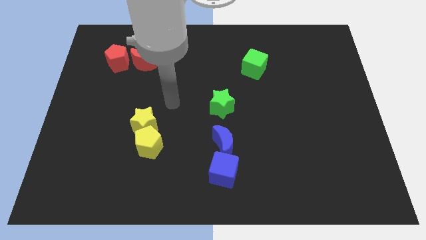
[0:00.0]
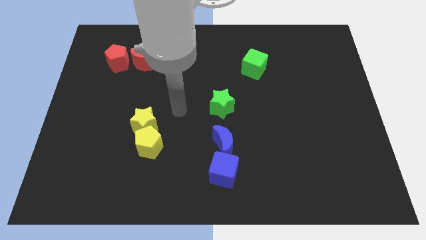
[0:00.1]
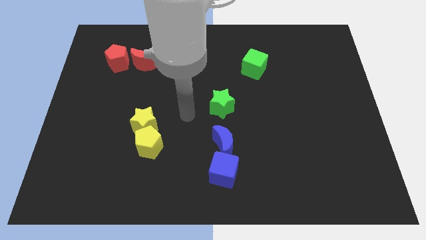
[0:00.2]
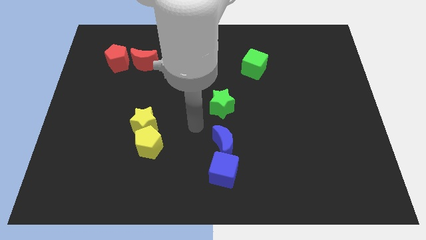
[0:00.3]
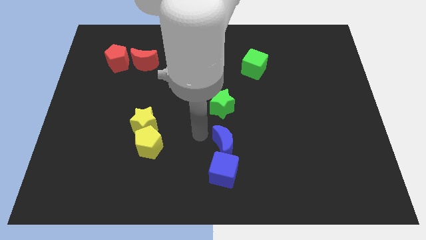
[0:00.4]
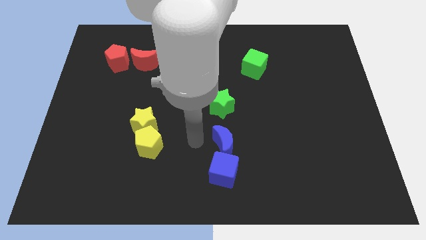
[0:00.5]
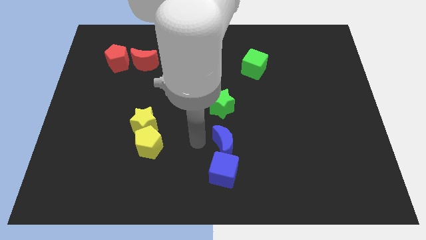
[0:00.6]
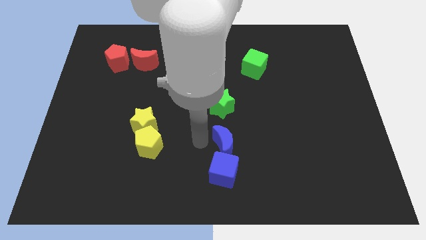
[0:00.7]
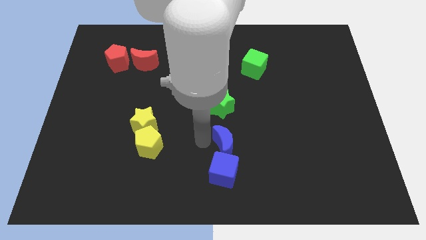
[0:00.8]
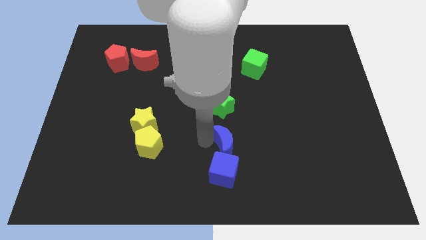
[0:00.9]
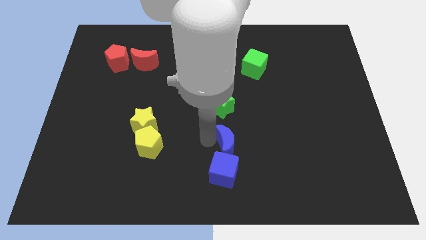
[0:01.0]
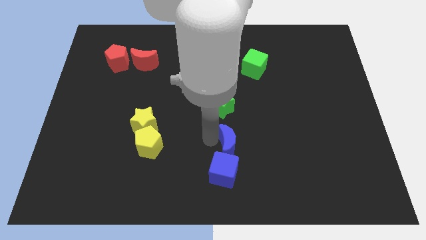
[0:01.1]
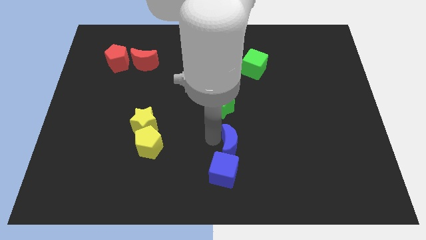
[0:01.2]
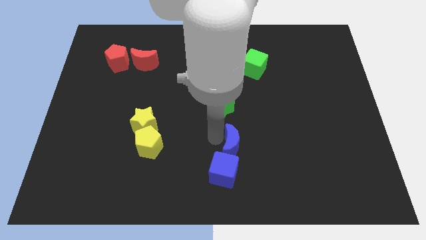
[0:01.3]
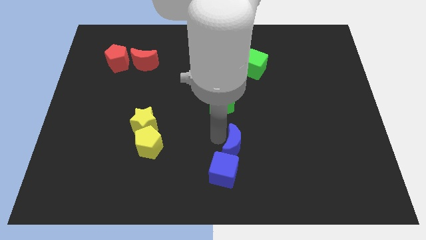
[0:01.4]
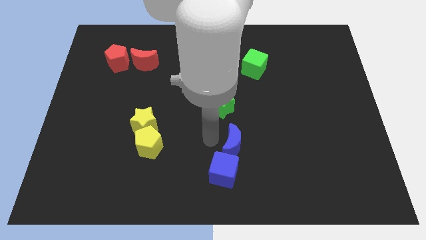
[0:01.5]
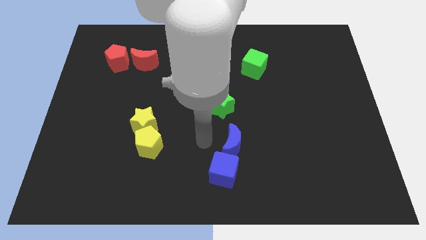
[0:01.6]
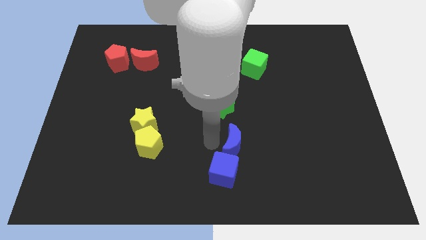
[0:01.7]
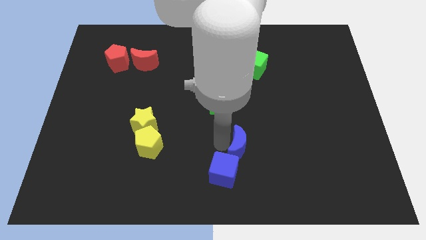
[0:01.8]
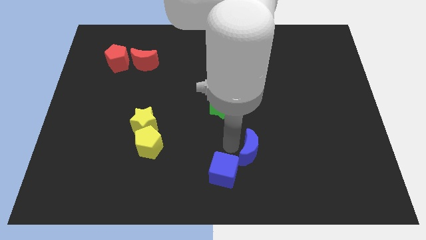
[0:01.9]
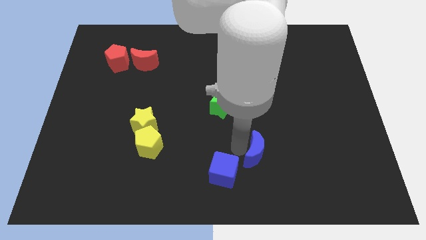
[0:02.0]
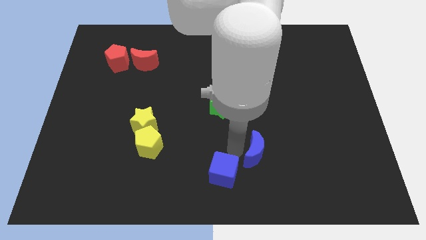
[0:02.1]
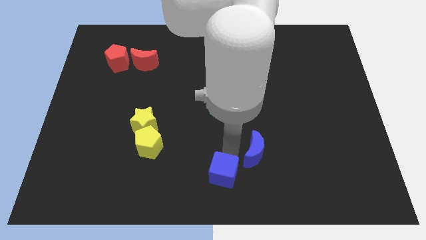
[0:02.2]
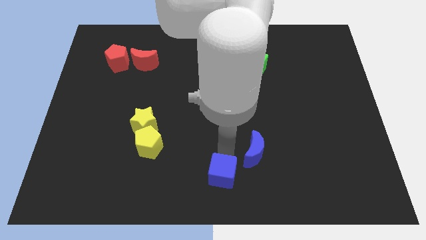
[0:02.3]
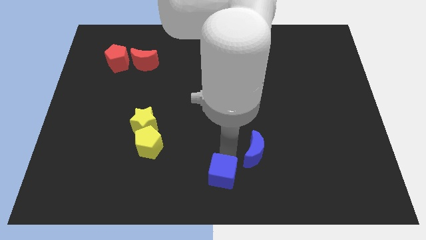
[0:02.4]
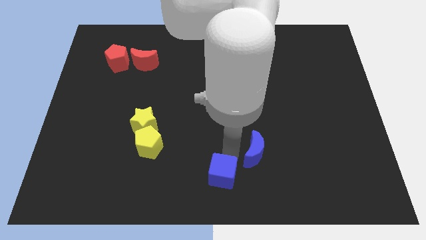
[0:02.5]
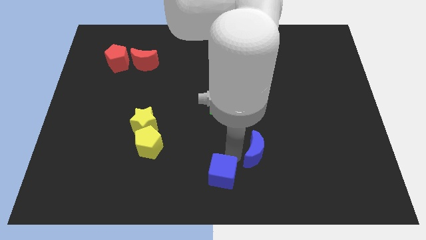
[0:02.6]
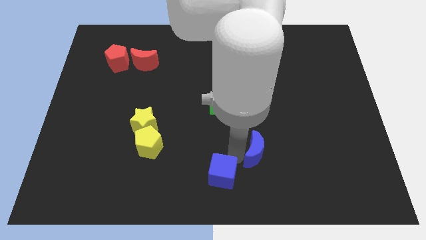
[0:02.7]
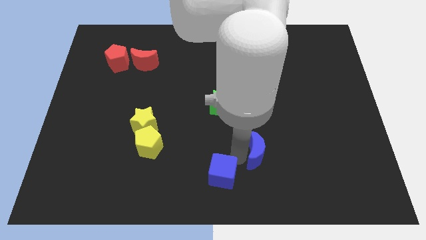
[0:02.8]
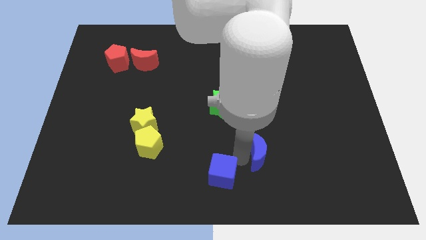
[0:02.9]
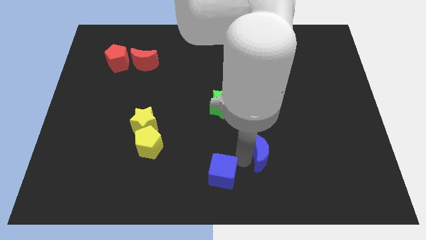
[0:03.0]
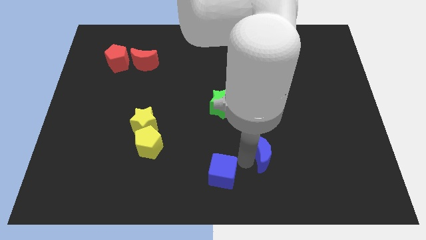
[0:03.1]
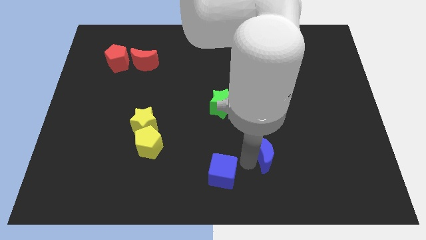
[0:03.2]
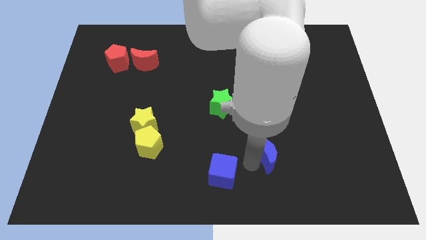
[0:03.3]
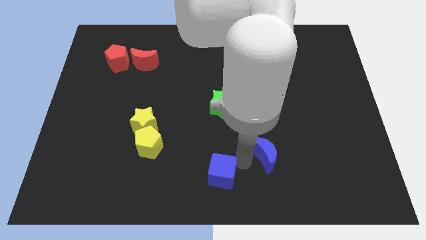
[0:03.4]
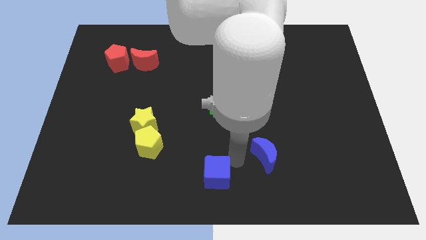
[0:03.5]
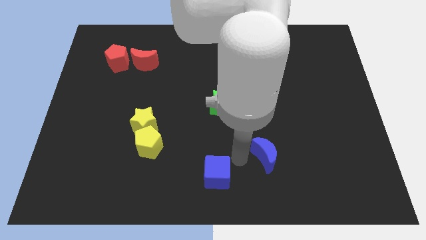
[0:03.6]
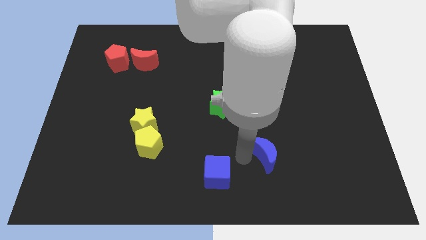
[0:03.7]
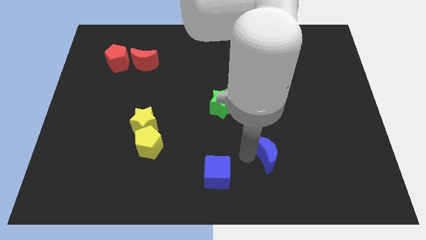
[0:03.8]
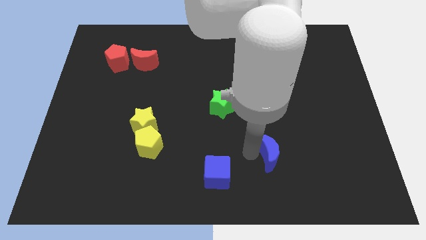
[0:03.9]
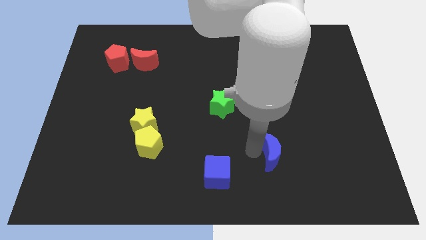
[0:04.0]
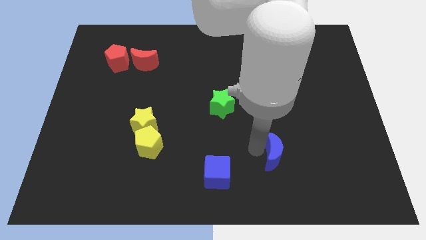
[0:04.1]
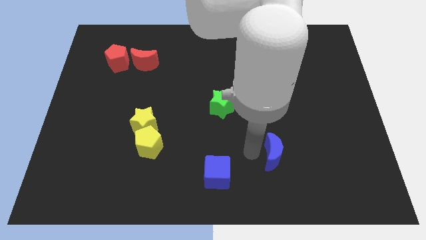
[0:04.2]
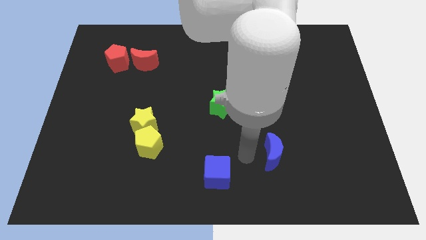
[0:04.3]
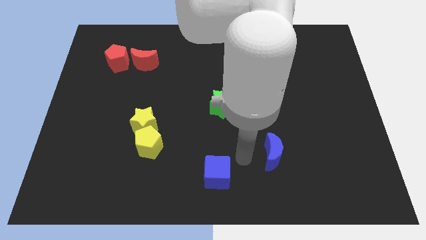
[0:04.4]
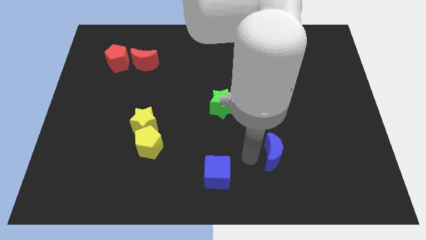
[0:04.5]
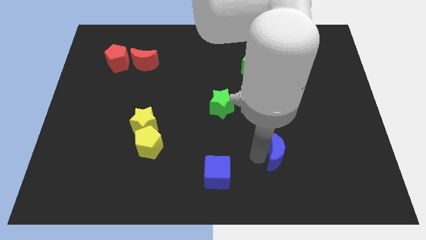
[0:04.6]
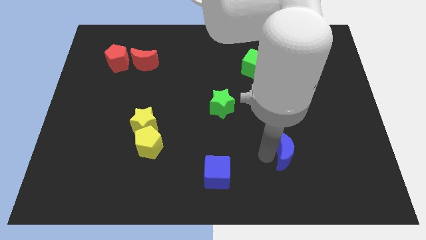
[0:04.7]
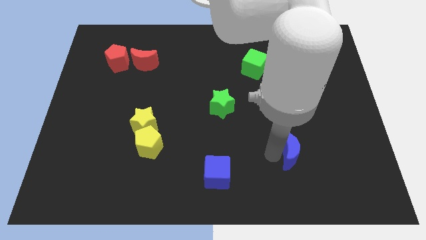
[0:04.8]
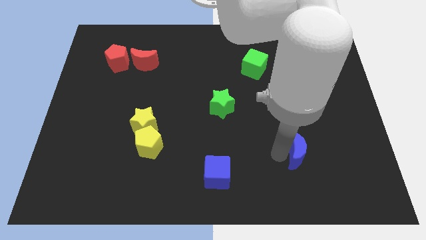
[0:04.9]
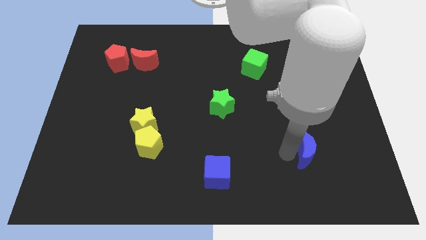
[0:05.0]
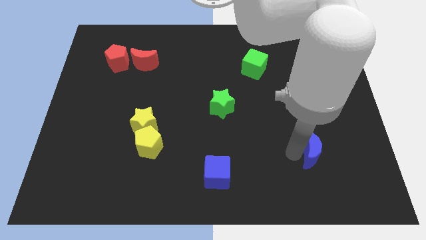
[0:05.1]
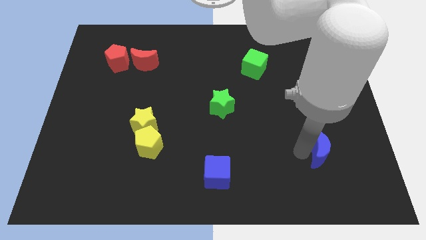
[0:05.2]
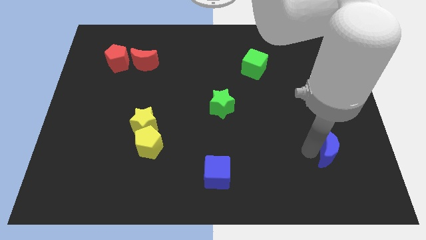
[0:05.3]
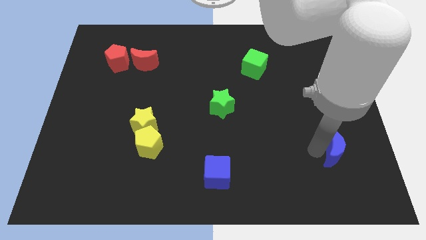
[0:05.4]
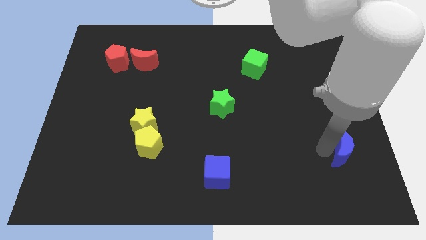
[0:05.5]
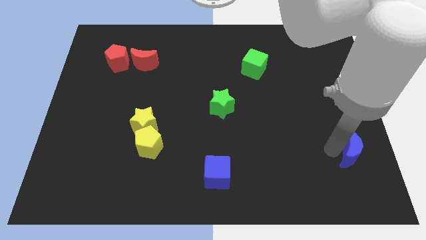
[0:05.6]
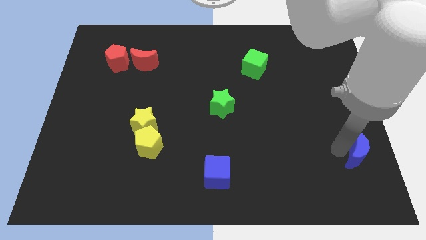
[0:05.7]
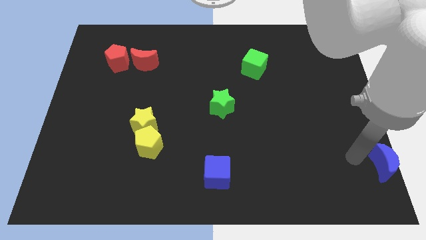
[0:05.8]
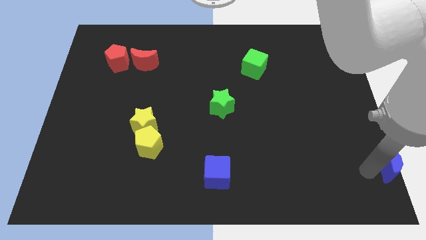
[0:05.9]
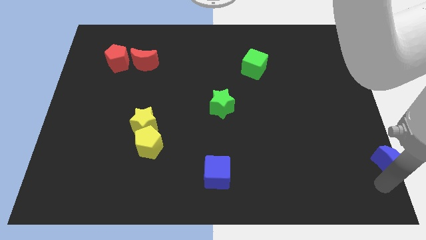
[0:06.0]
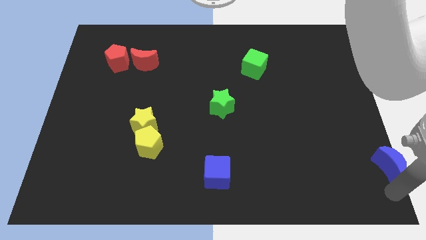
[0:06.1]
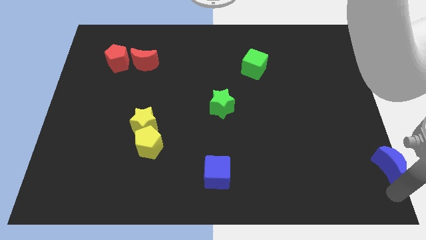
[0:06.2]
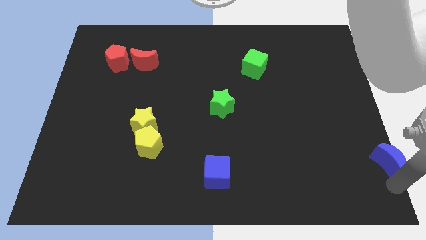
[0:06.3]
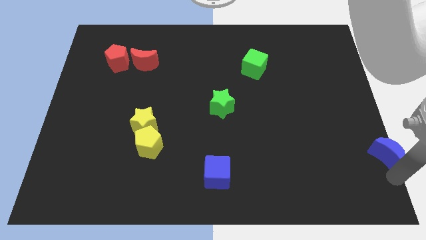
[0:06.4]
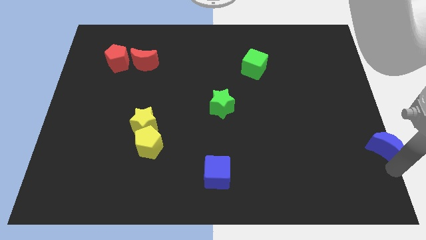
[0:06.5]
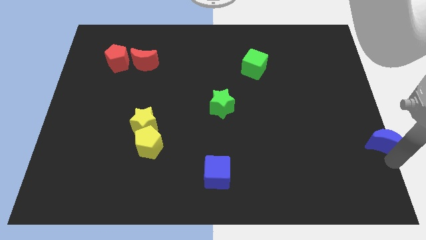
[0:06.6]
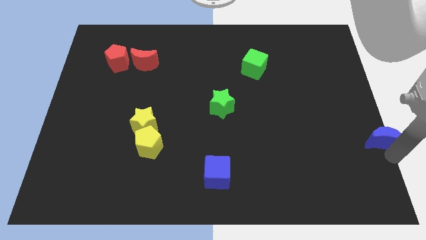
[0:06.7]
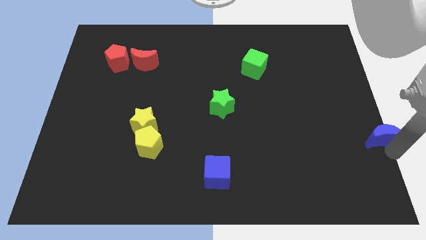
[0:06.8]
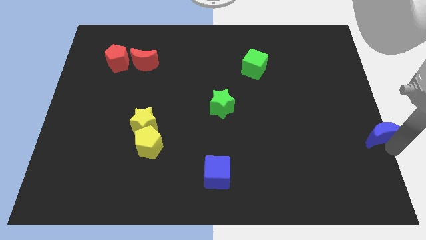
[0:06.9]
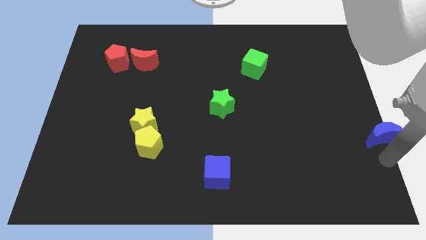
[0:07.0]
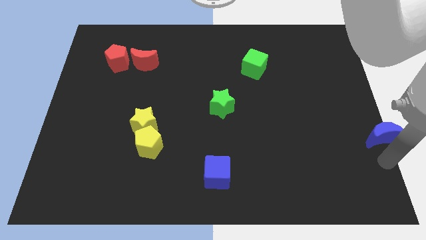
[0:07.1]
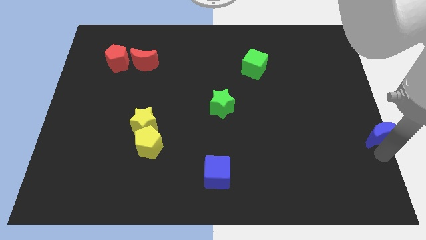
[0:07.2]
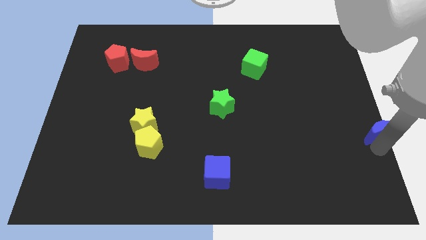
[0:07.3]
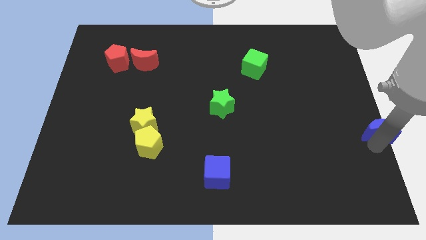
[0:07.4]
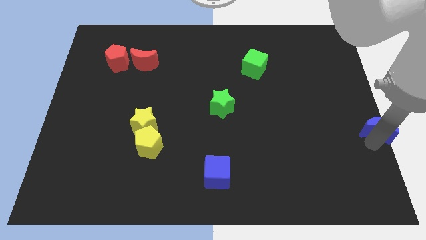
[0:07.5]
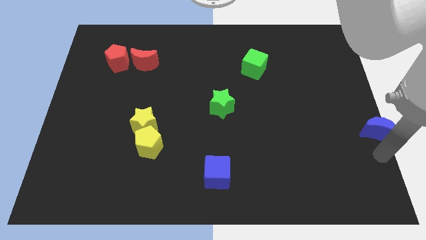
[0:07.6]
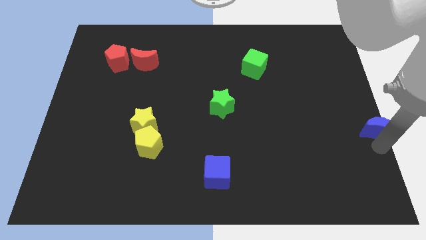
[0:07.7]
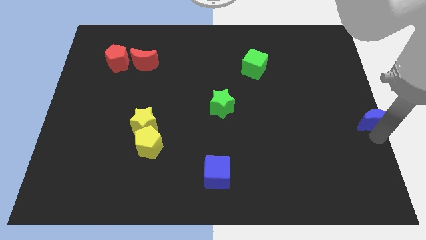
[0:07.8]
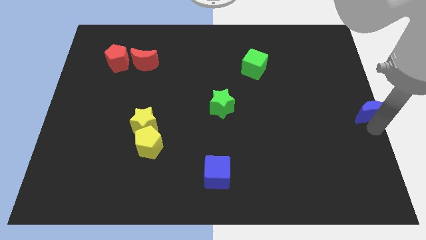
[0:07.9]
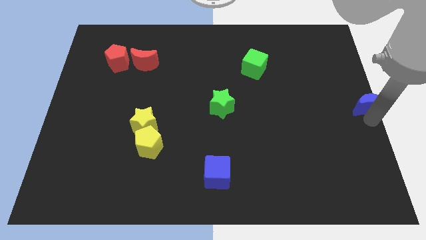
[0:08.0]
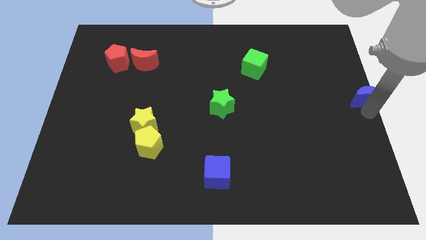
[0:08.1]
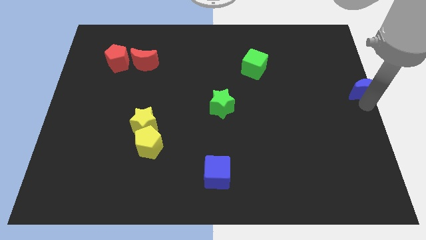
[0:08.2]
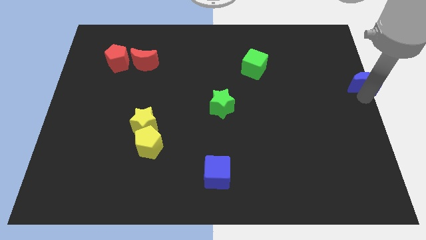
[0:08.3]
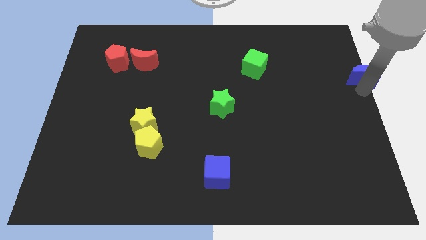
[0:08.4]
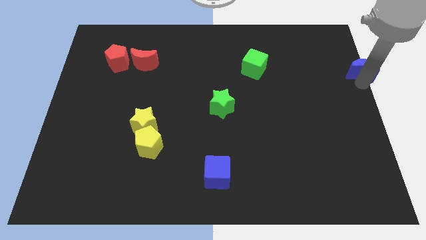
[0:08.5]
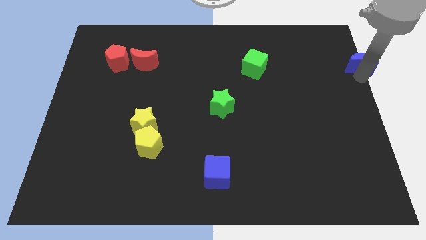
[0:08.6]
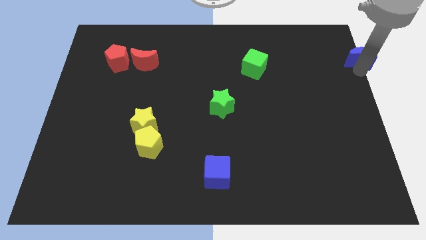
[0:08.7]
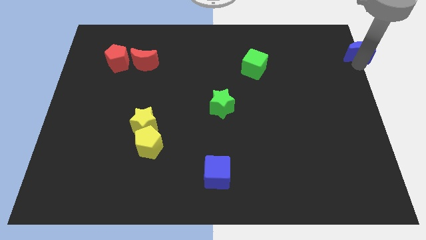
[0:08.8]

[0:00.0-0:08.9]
push the blue moon to the top right
